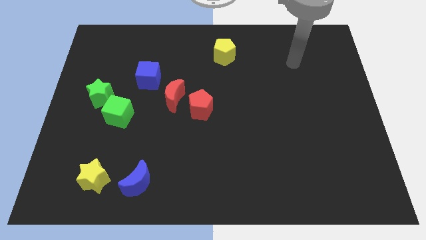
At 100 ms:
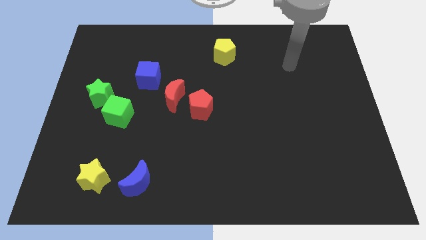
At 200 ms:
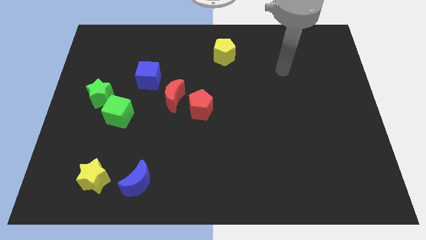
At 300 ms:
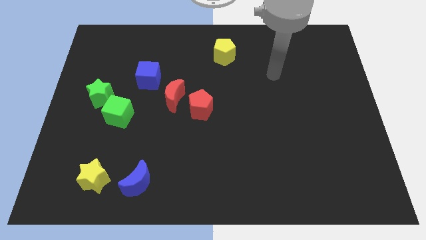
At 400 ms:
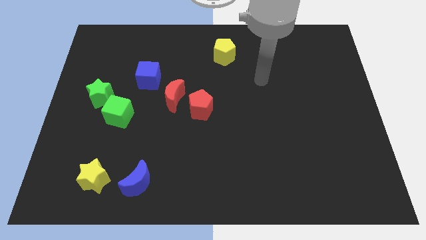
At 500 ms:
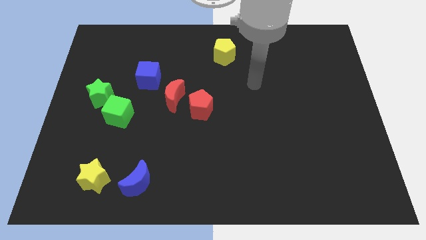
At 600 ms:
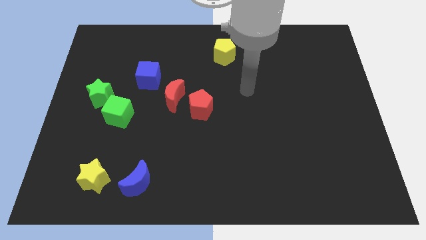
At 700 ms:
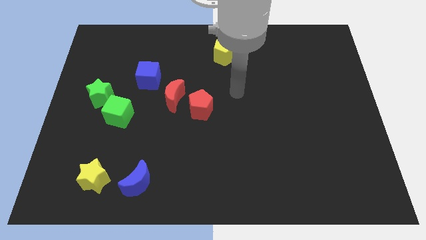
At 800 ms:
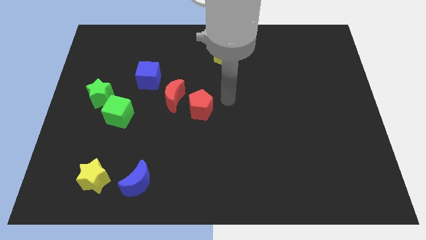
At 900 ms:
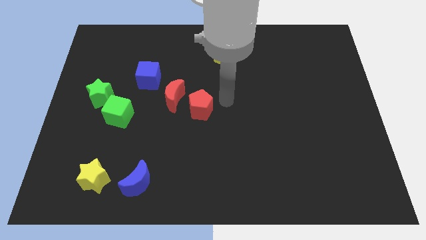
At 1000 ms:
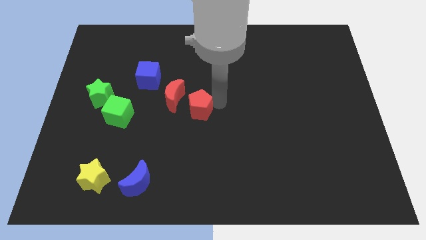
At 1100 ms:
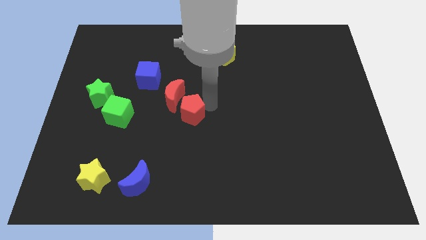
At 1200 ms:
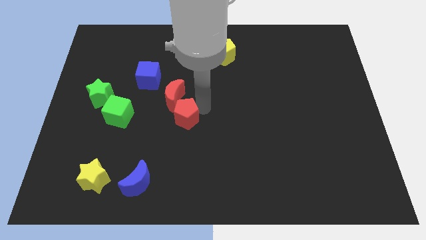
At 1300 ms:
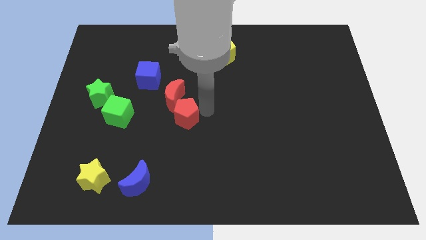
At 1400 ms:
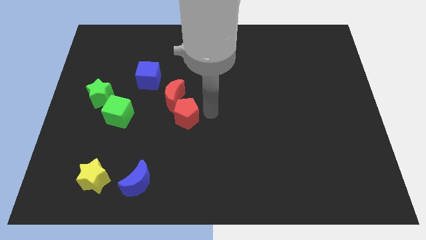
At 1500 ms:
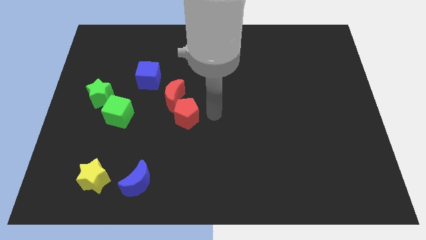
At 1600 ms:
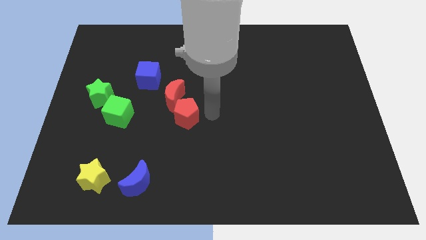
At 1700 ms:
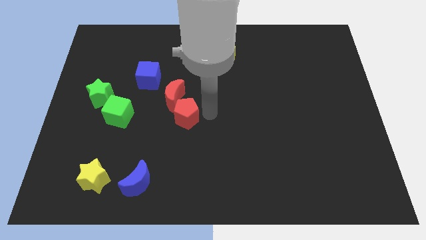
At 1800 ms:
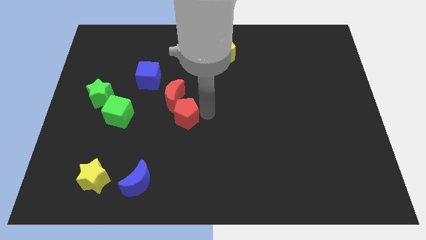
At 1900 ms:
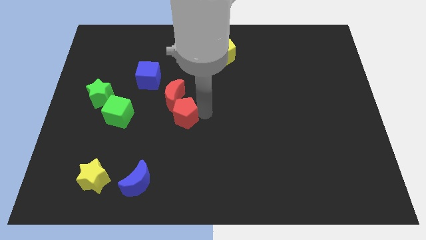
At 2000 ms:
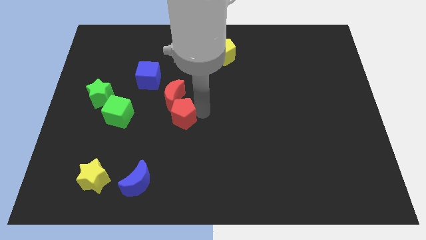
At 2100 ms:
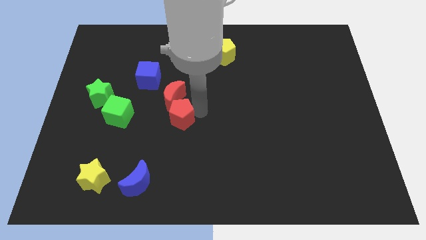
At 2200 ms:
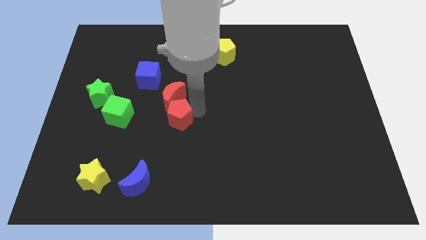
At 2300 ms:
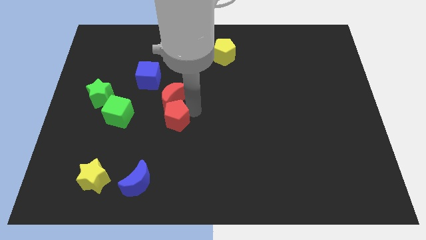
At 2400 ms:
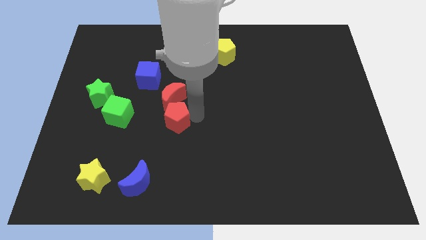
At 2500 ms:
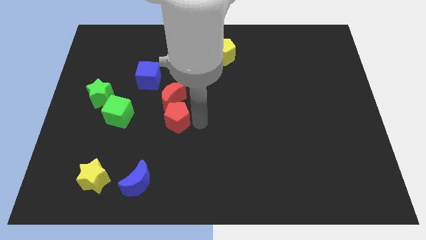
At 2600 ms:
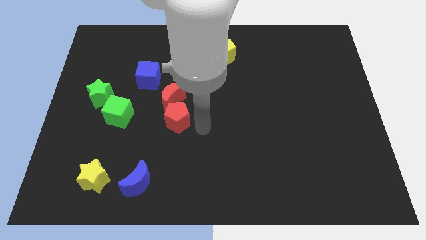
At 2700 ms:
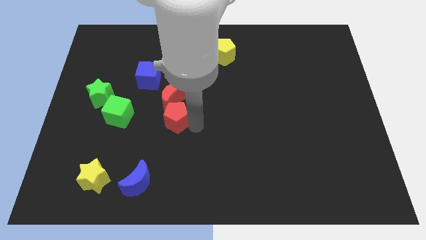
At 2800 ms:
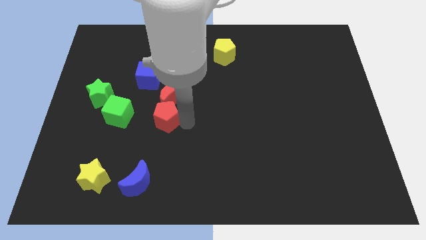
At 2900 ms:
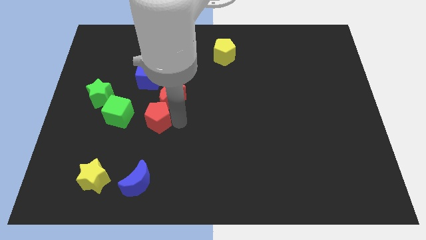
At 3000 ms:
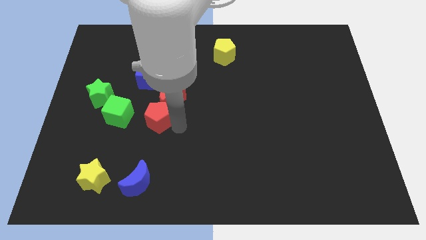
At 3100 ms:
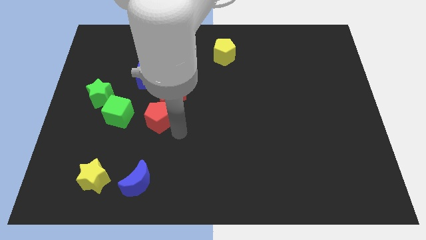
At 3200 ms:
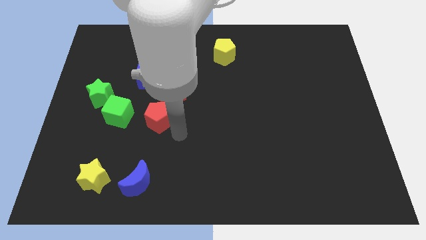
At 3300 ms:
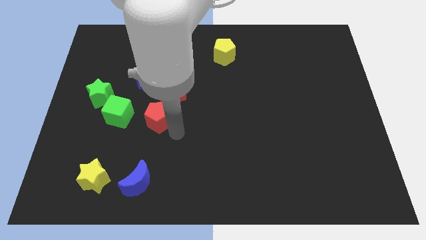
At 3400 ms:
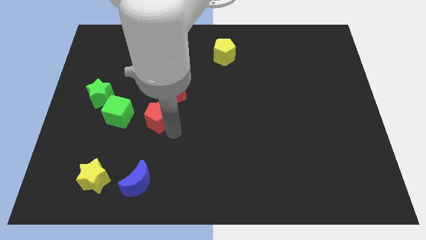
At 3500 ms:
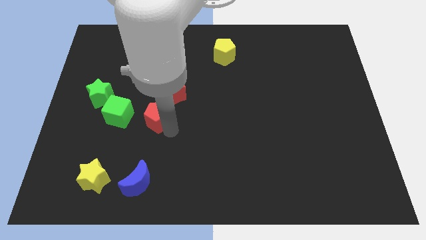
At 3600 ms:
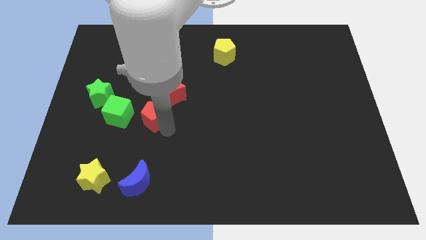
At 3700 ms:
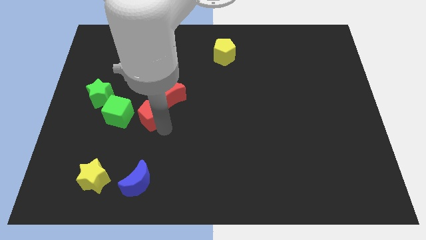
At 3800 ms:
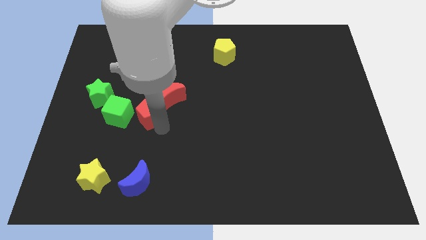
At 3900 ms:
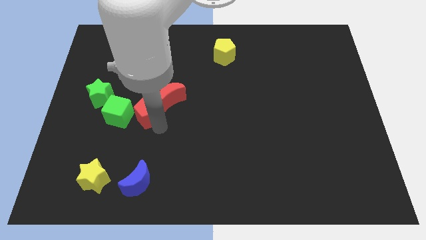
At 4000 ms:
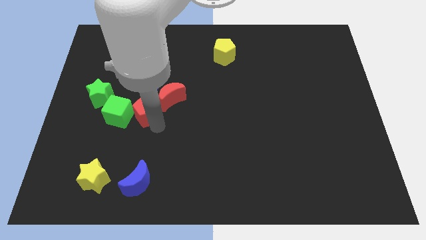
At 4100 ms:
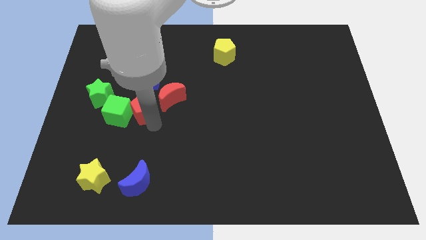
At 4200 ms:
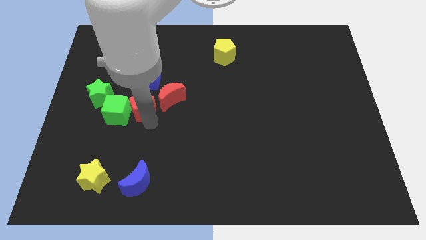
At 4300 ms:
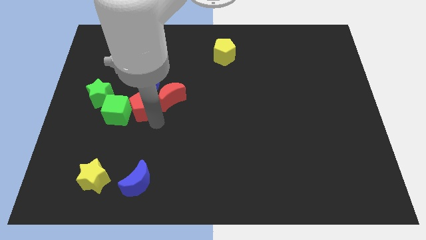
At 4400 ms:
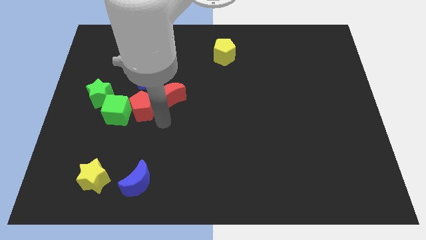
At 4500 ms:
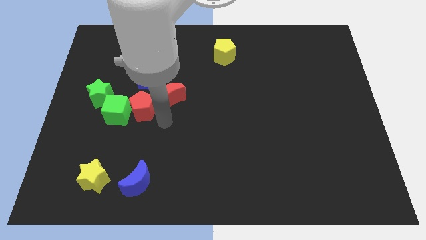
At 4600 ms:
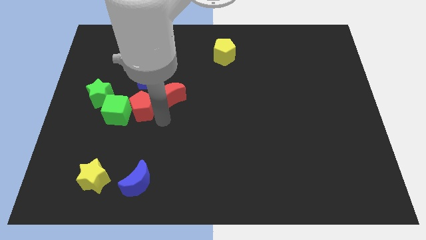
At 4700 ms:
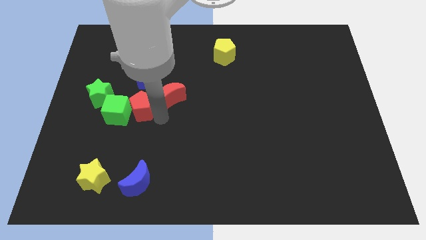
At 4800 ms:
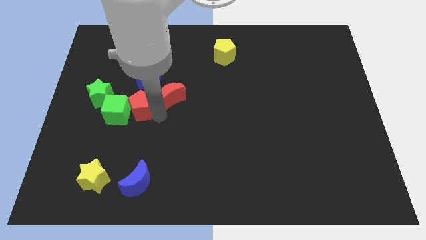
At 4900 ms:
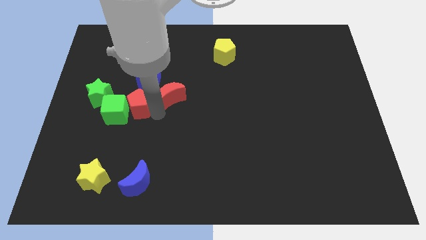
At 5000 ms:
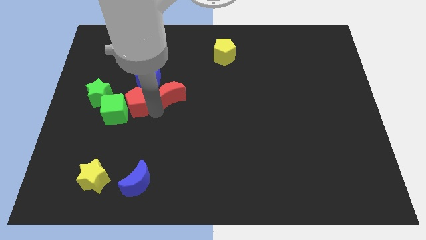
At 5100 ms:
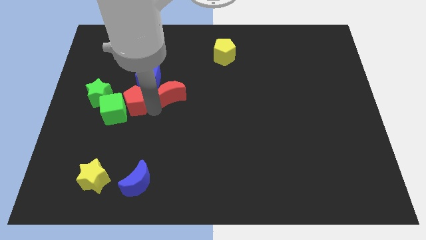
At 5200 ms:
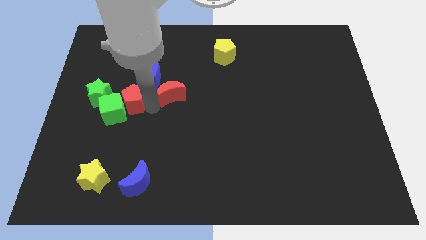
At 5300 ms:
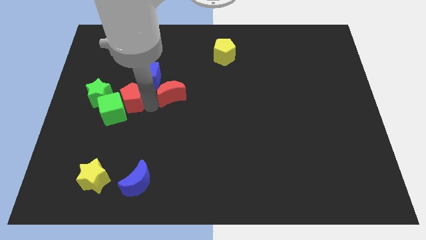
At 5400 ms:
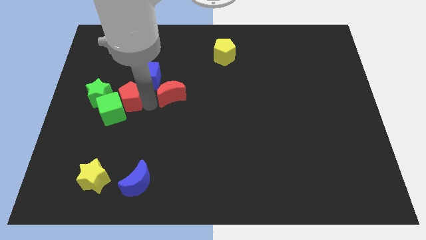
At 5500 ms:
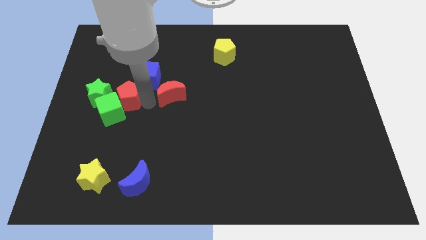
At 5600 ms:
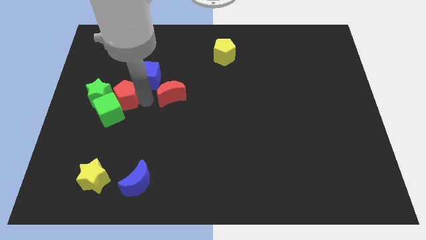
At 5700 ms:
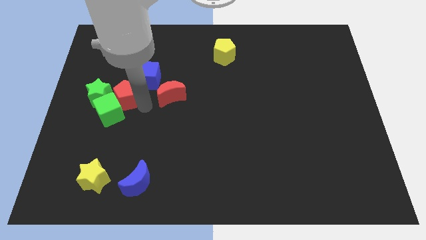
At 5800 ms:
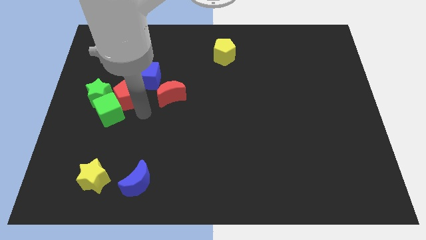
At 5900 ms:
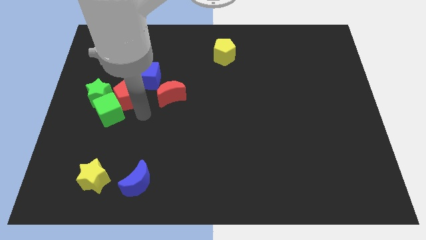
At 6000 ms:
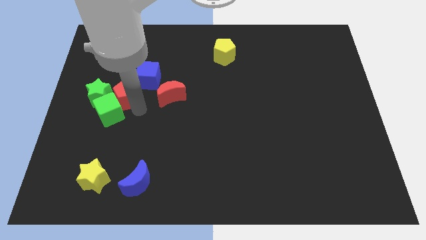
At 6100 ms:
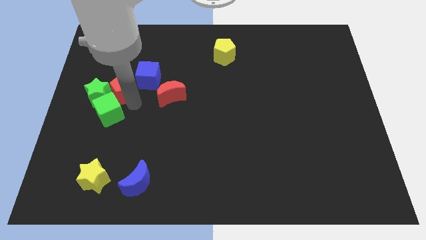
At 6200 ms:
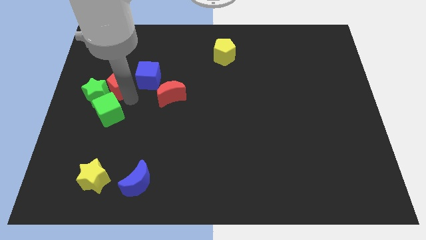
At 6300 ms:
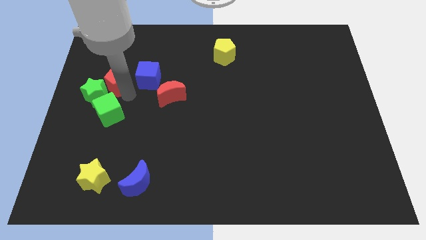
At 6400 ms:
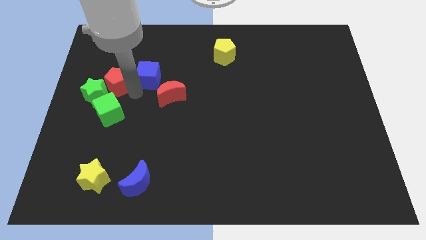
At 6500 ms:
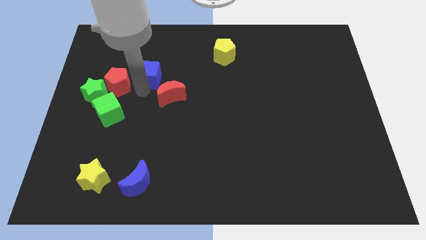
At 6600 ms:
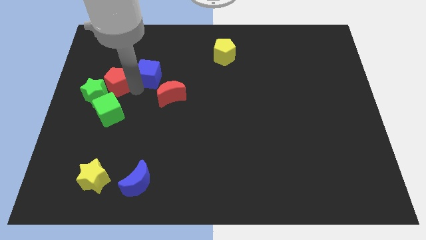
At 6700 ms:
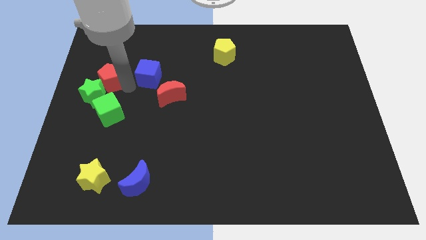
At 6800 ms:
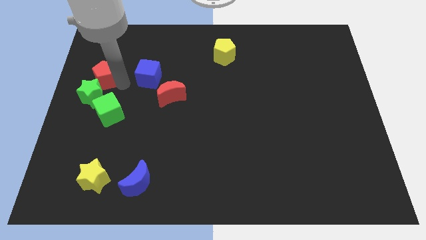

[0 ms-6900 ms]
put the red pentagon to the center left
